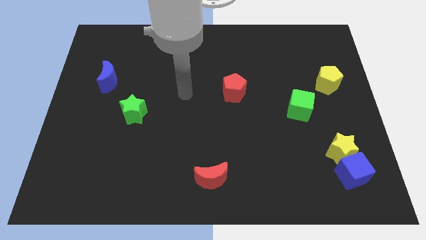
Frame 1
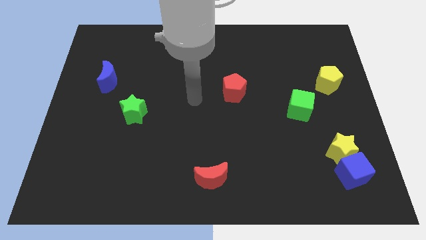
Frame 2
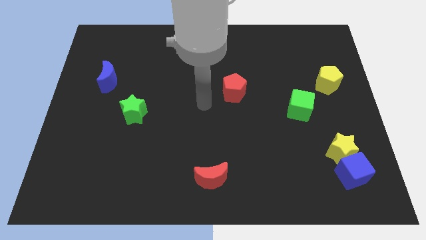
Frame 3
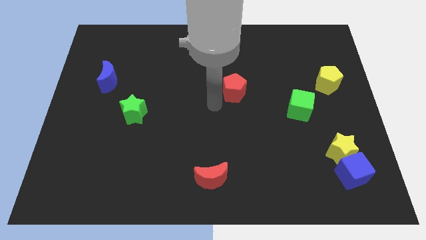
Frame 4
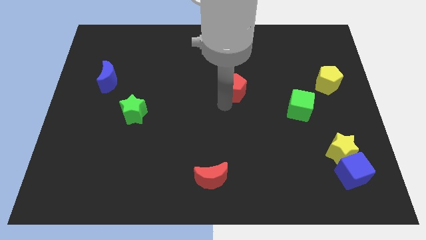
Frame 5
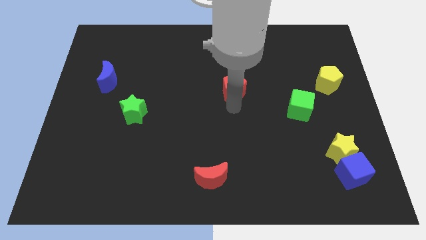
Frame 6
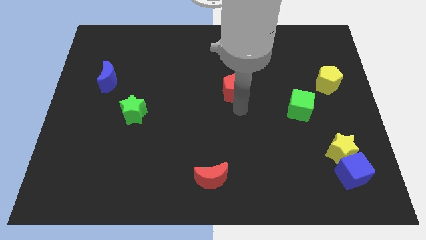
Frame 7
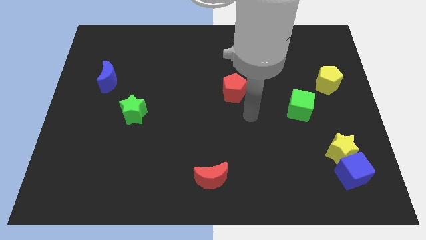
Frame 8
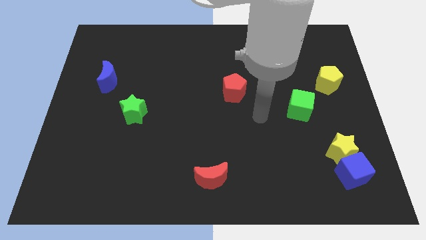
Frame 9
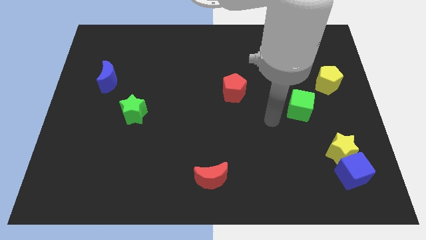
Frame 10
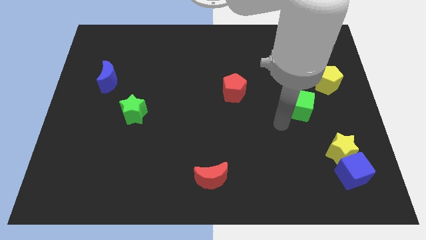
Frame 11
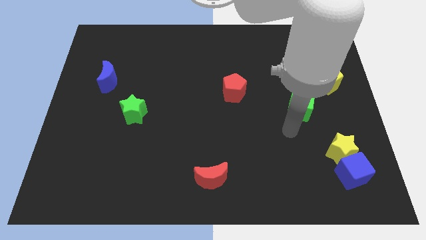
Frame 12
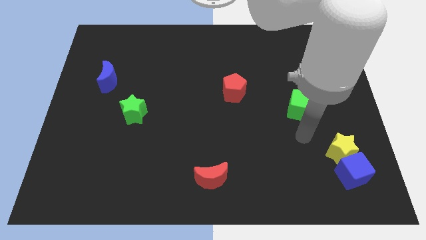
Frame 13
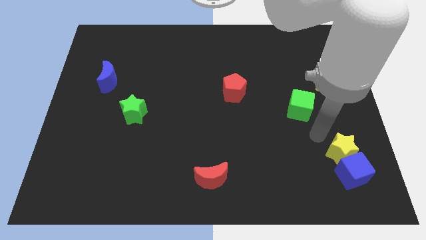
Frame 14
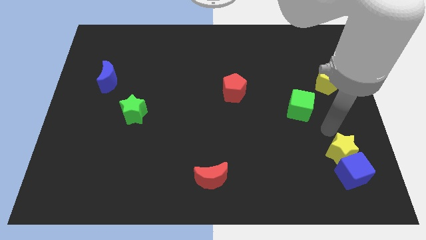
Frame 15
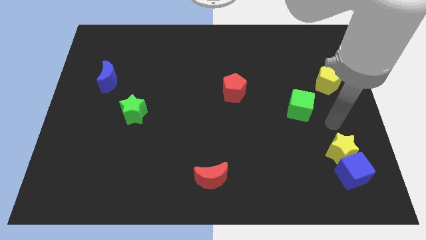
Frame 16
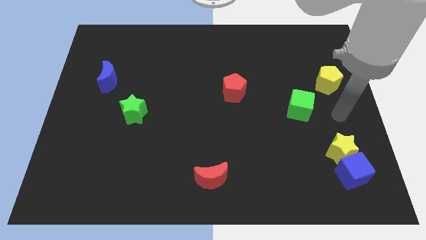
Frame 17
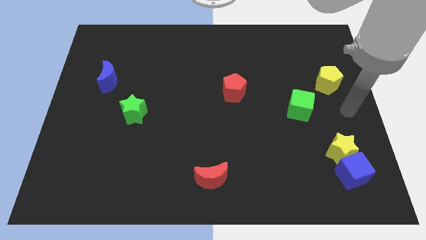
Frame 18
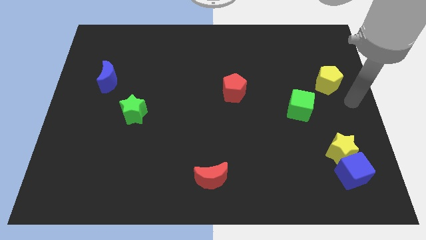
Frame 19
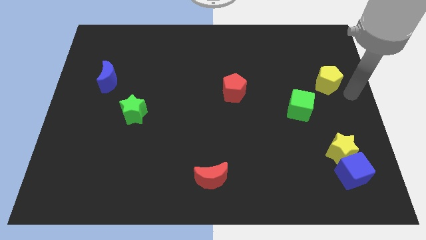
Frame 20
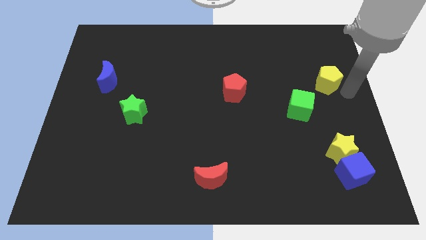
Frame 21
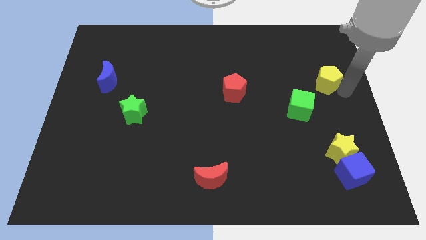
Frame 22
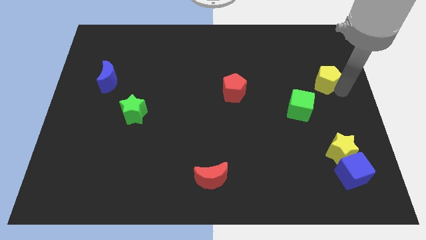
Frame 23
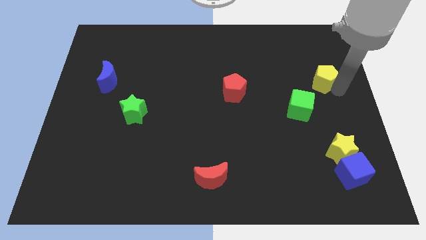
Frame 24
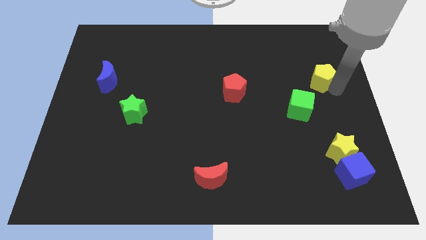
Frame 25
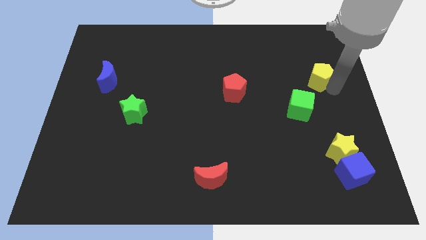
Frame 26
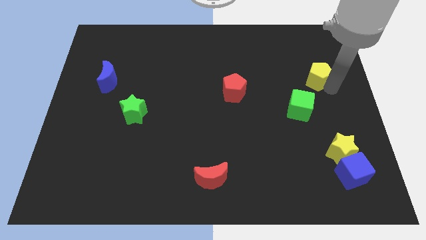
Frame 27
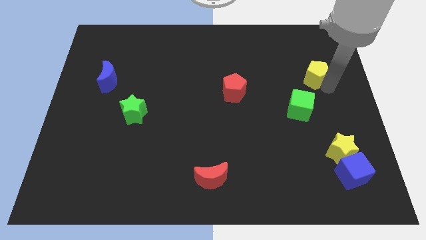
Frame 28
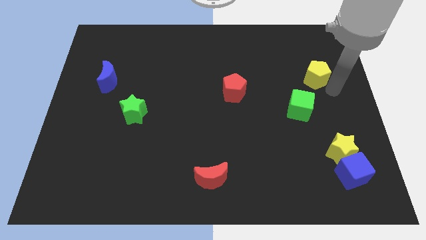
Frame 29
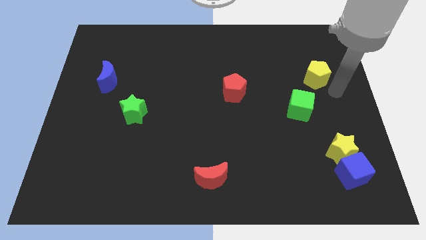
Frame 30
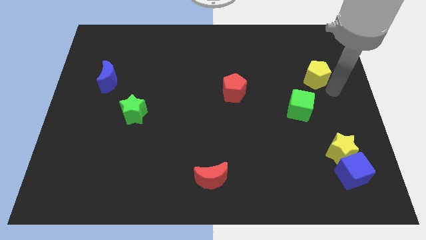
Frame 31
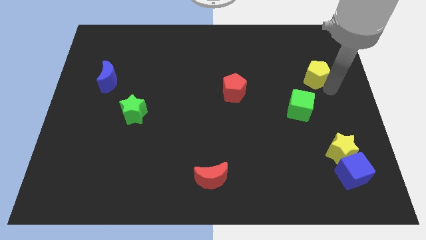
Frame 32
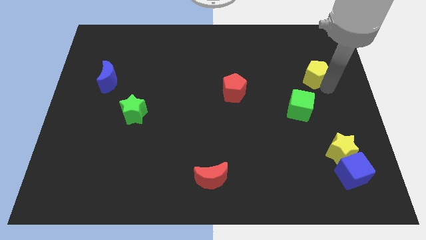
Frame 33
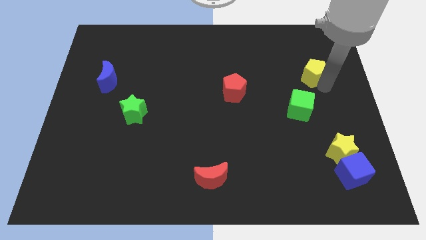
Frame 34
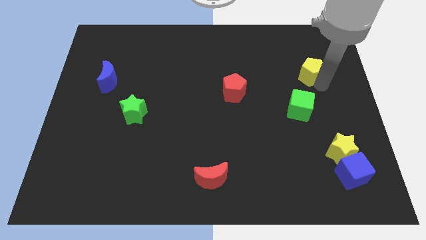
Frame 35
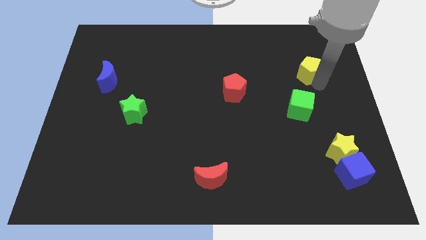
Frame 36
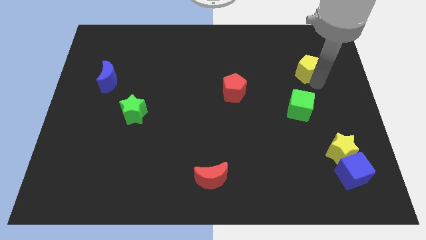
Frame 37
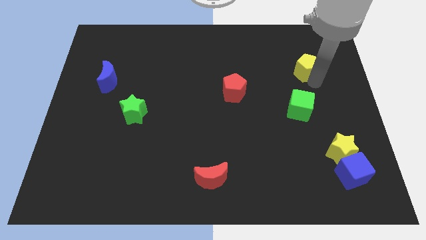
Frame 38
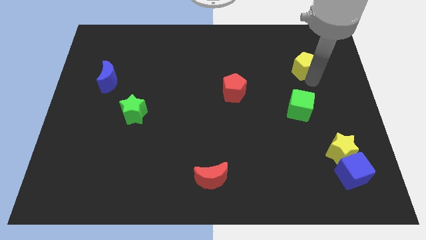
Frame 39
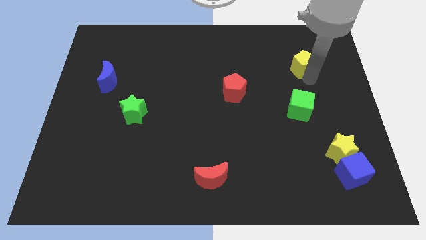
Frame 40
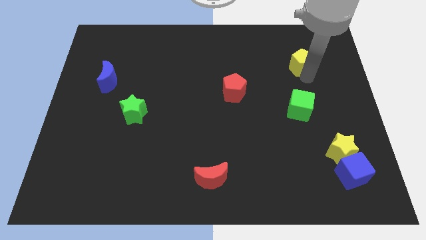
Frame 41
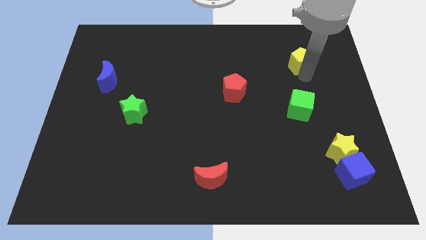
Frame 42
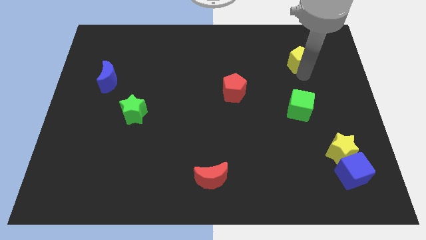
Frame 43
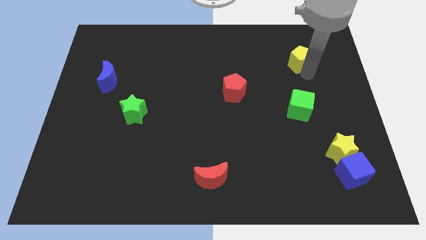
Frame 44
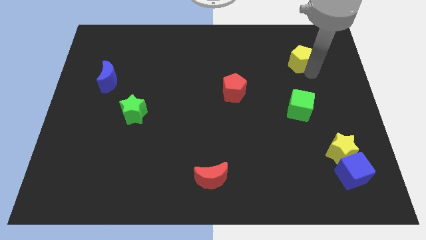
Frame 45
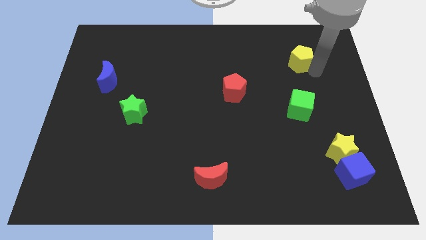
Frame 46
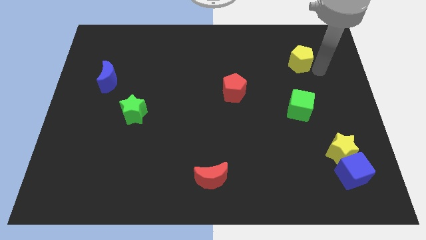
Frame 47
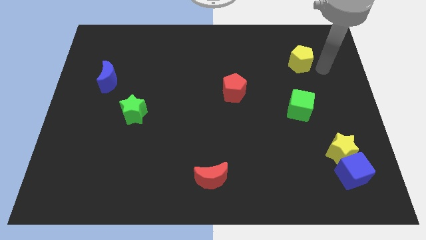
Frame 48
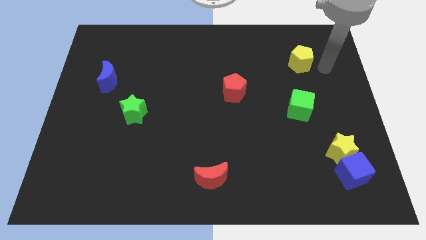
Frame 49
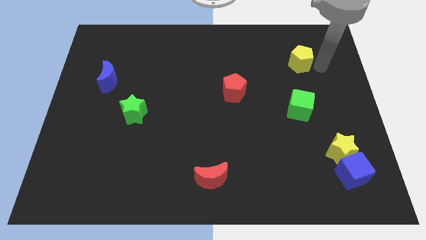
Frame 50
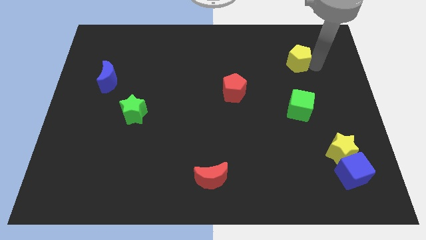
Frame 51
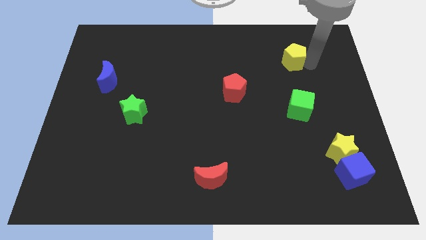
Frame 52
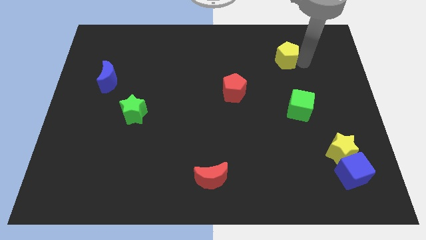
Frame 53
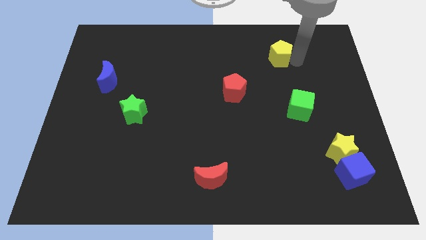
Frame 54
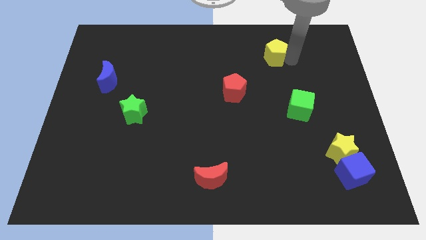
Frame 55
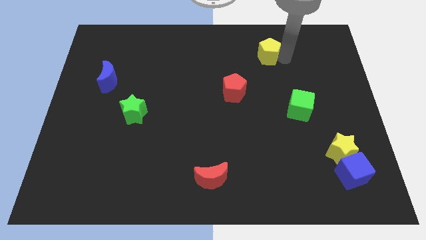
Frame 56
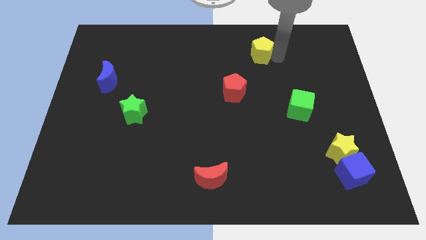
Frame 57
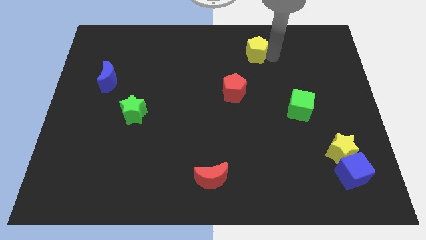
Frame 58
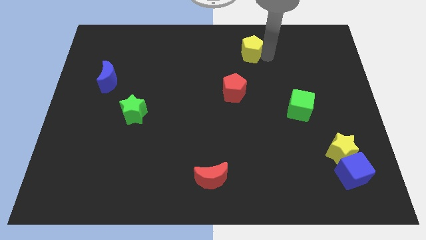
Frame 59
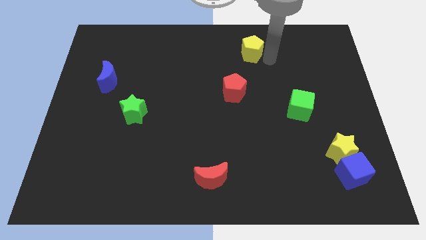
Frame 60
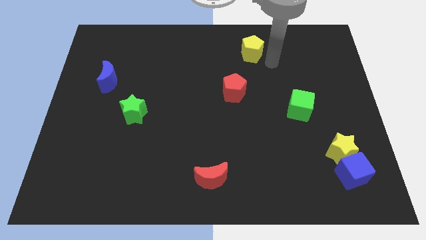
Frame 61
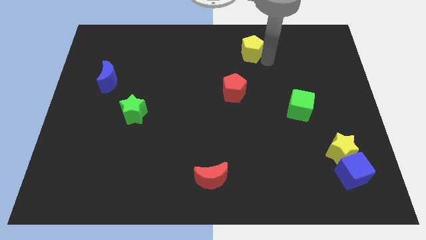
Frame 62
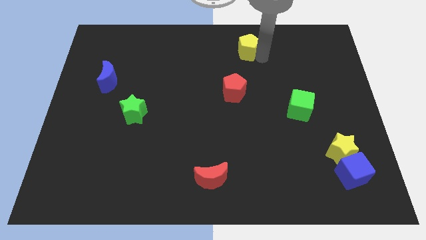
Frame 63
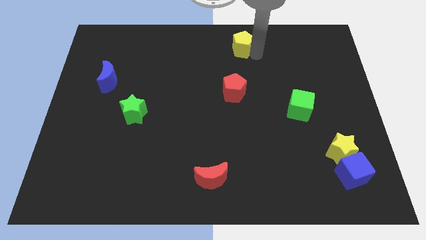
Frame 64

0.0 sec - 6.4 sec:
put the yellow pentagon to the towards your base
